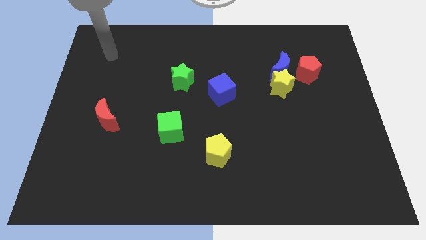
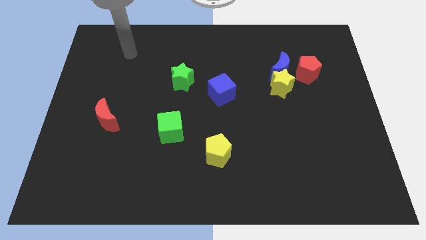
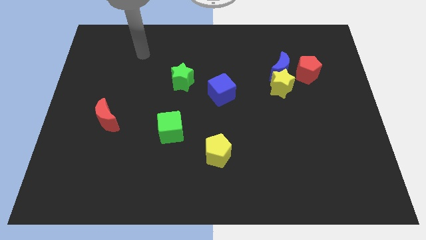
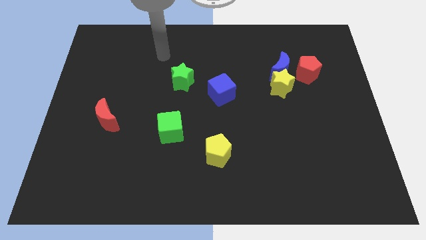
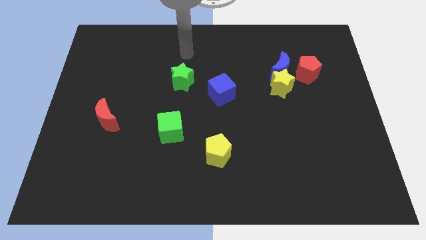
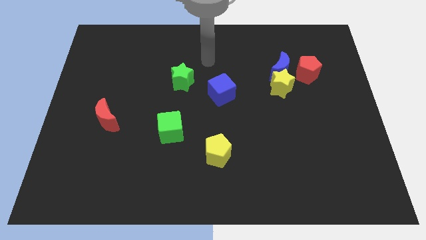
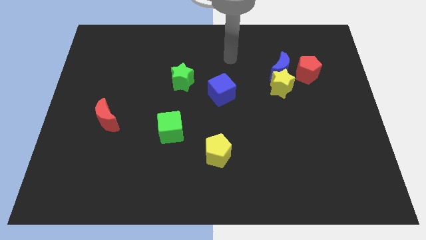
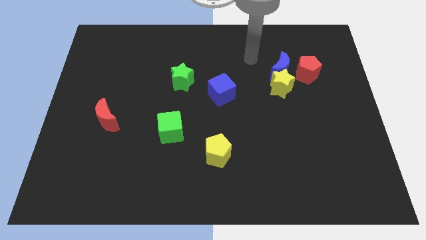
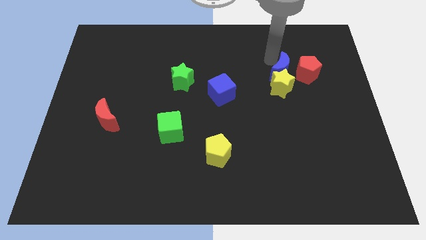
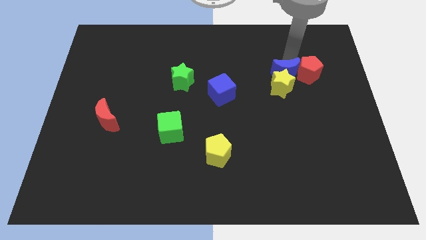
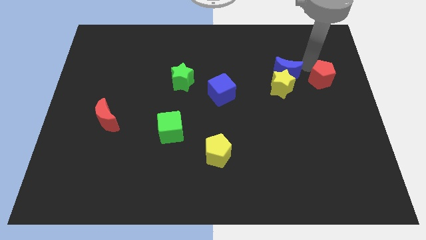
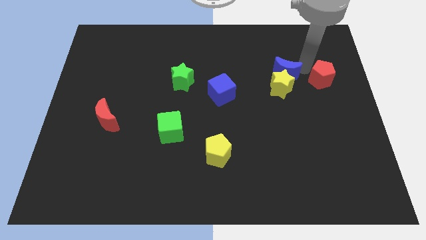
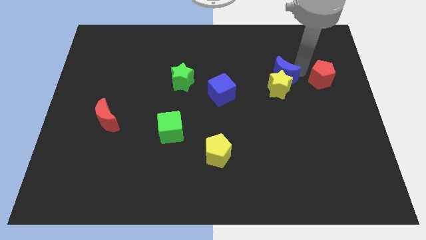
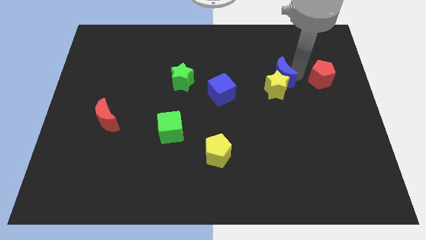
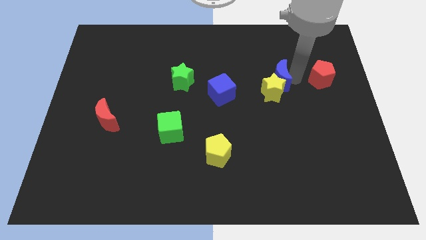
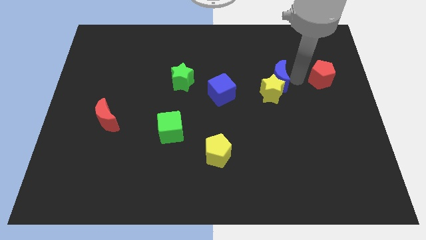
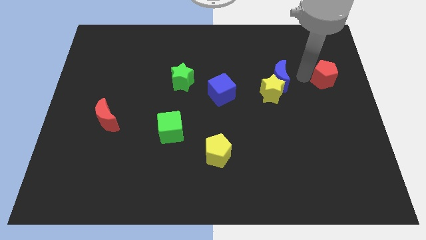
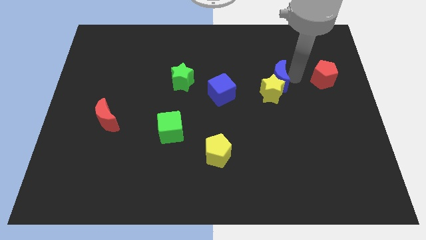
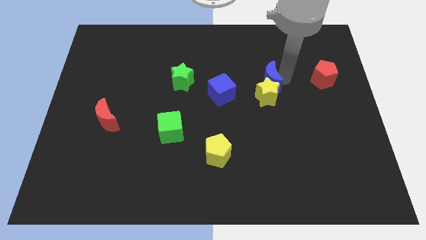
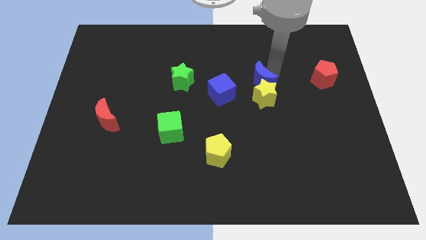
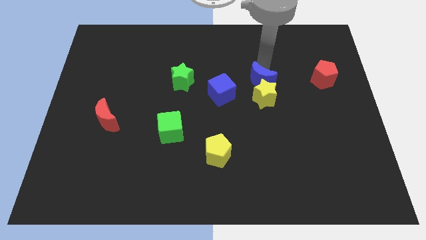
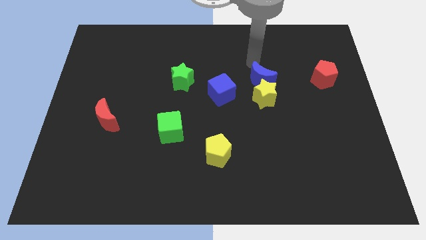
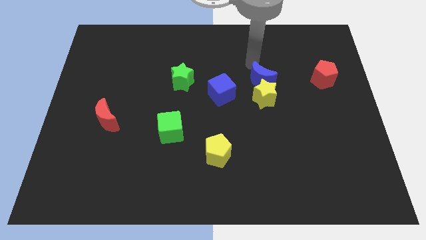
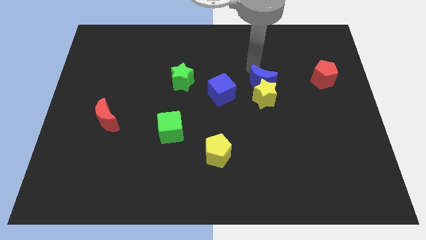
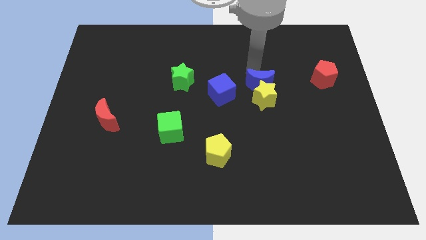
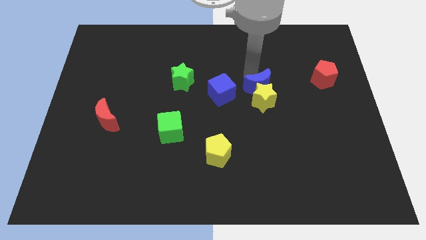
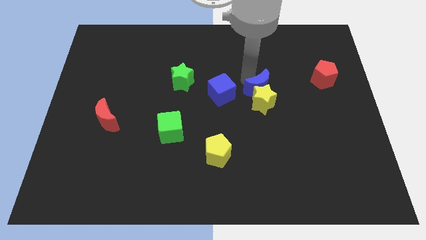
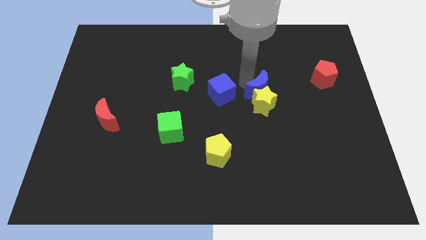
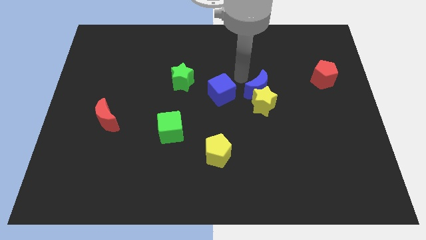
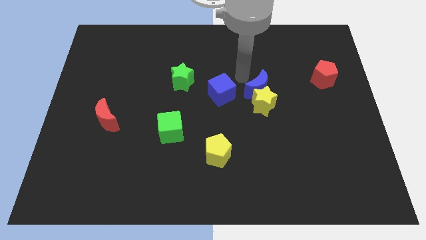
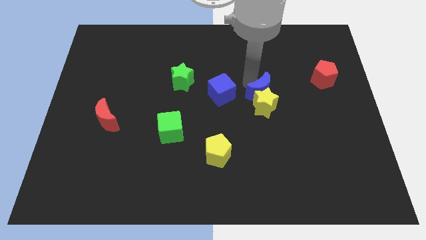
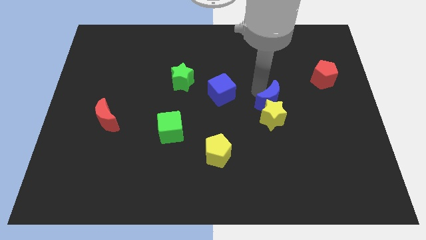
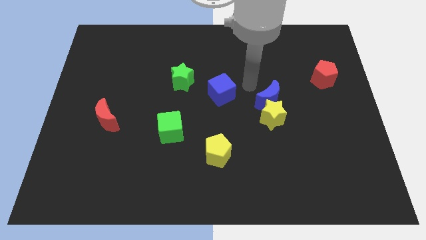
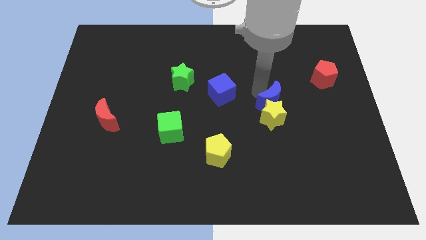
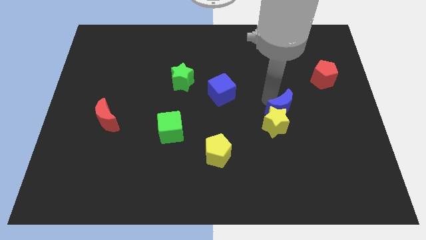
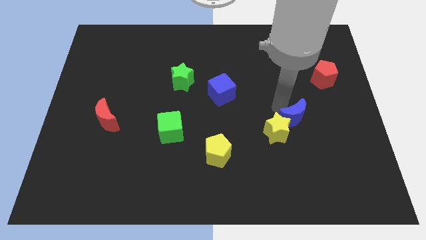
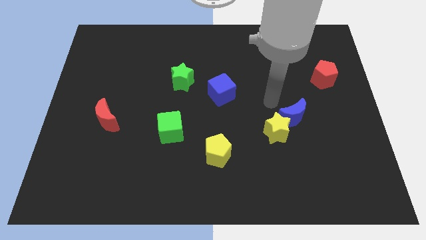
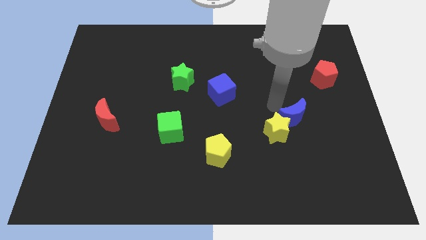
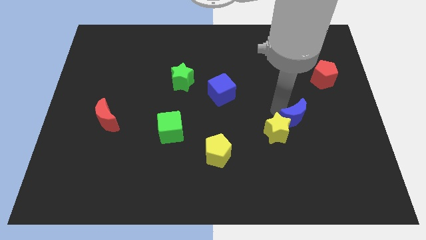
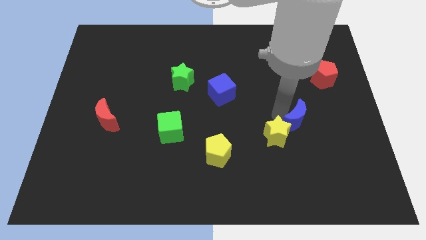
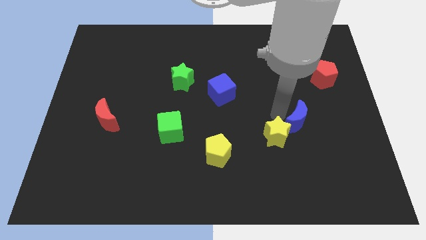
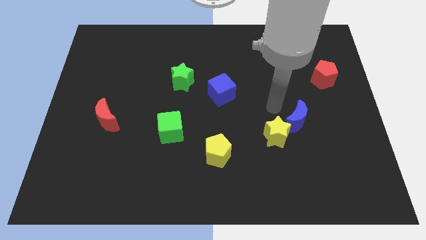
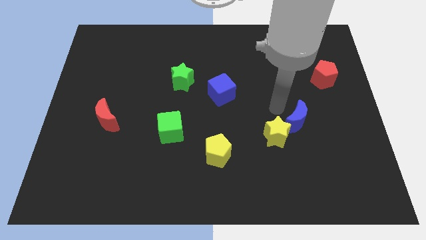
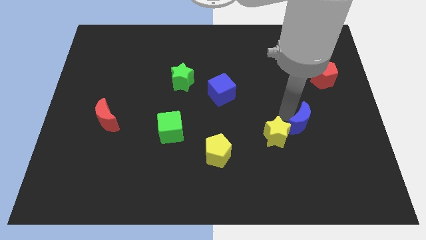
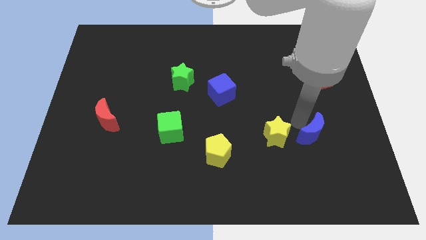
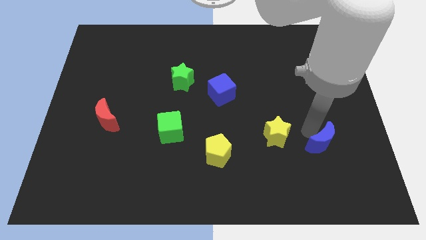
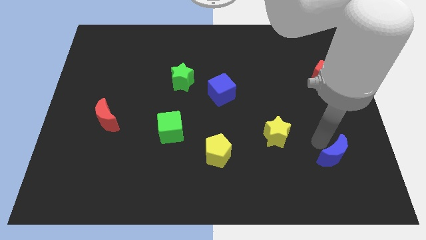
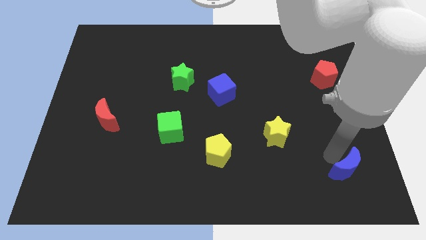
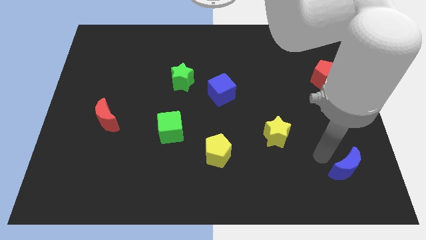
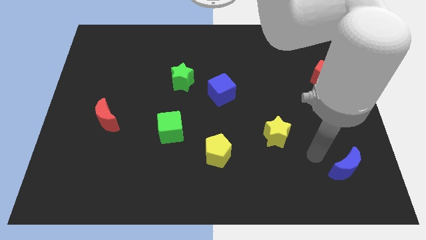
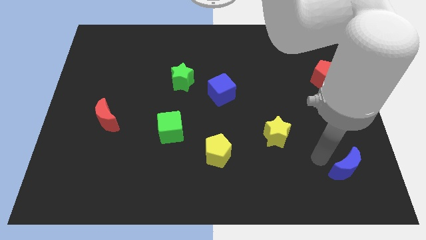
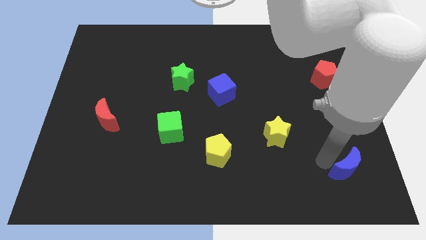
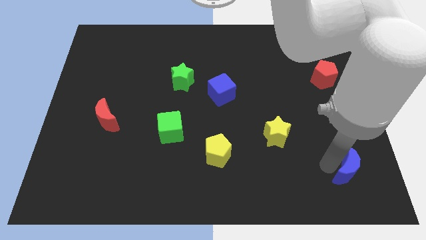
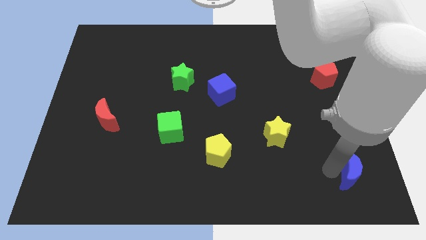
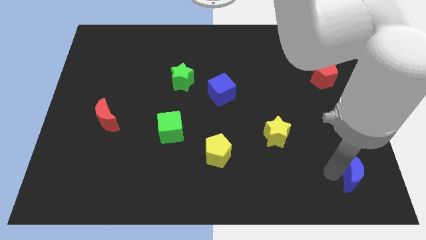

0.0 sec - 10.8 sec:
slide the blue moon to the lower right corner
